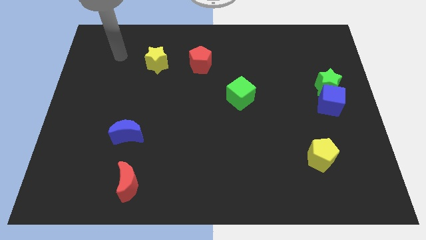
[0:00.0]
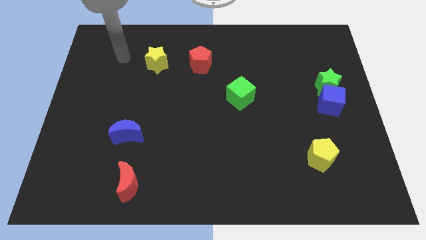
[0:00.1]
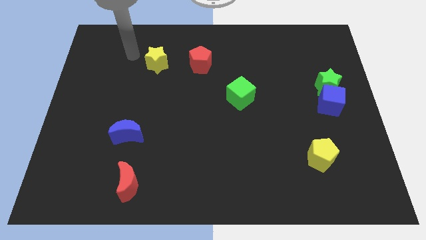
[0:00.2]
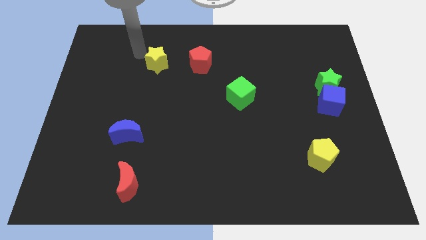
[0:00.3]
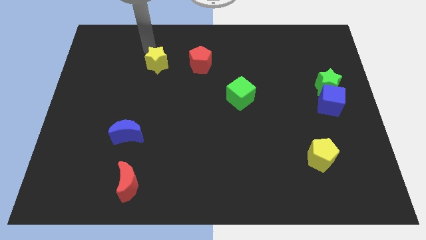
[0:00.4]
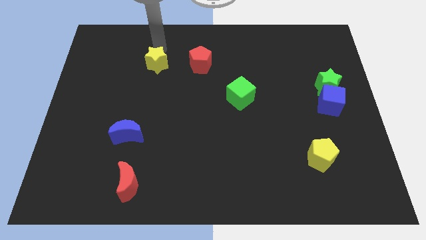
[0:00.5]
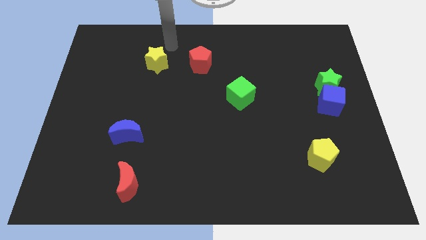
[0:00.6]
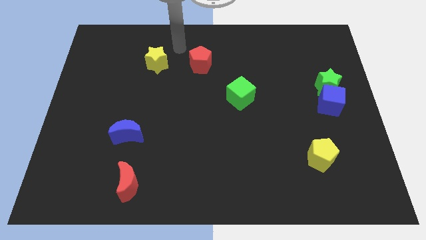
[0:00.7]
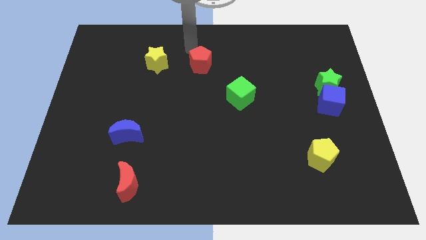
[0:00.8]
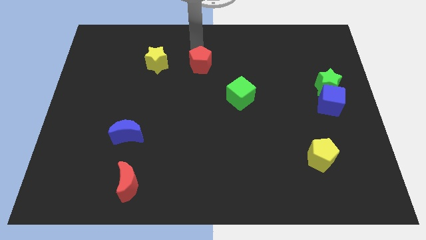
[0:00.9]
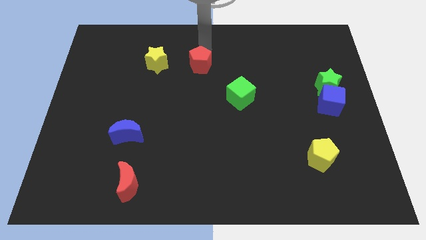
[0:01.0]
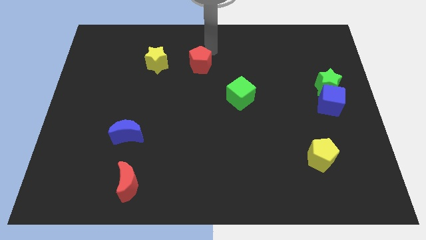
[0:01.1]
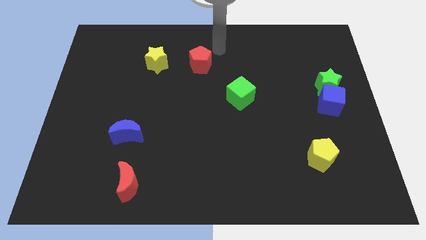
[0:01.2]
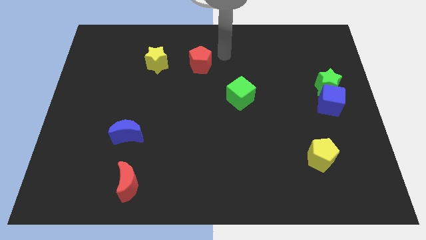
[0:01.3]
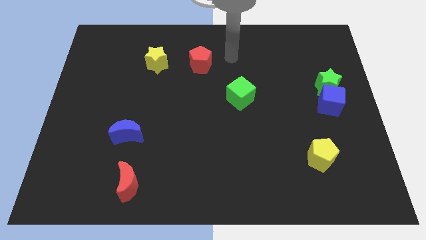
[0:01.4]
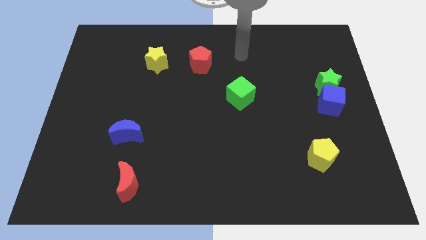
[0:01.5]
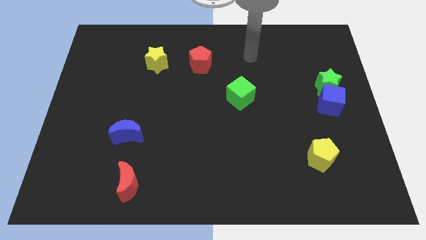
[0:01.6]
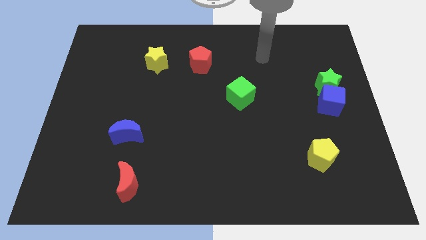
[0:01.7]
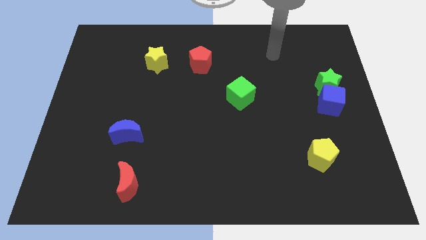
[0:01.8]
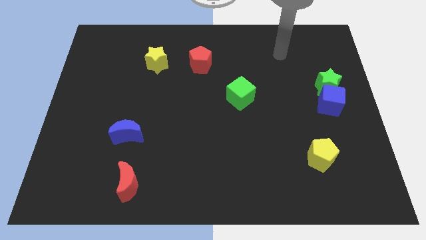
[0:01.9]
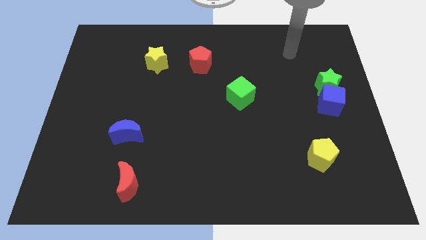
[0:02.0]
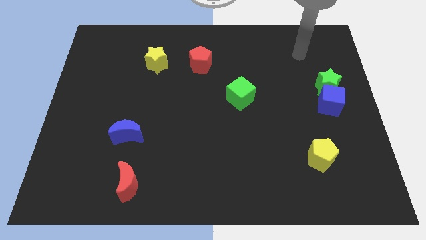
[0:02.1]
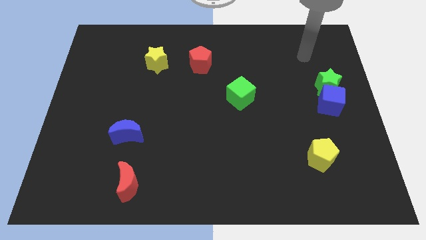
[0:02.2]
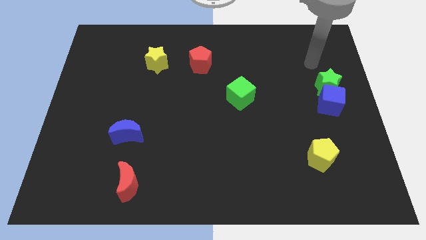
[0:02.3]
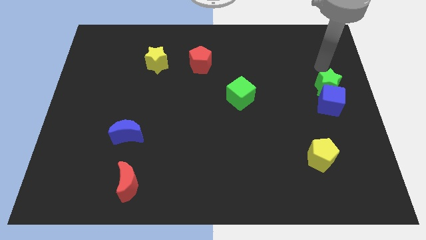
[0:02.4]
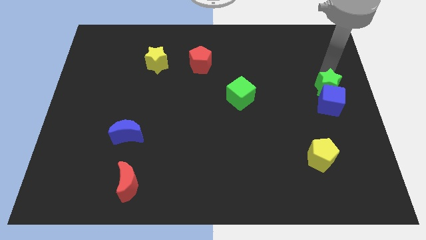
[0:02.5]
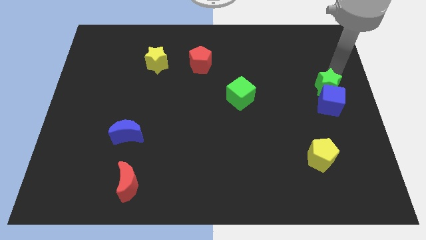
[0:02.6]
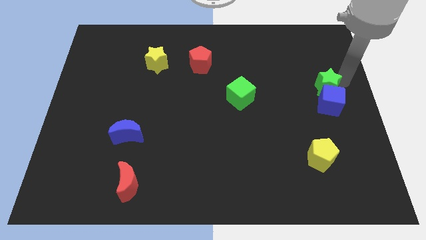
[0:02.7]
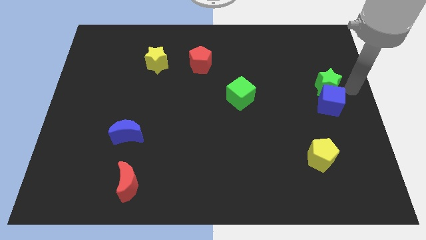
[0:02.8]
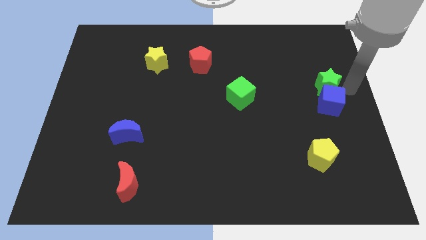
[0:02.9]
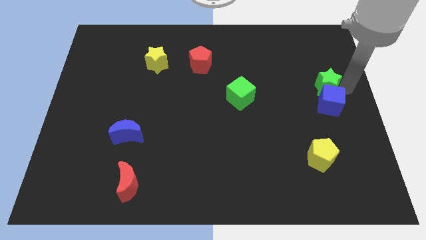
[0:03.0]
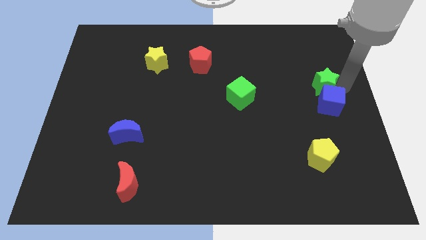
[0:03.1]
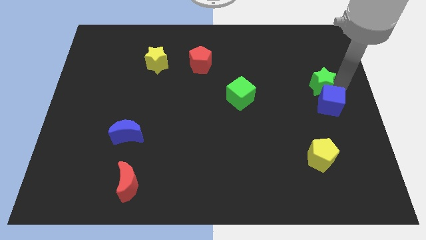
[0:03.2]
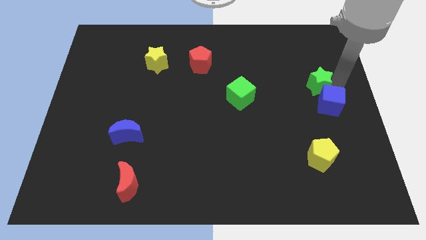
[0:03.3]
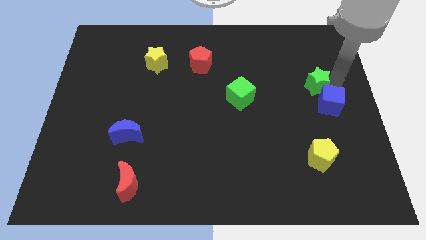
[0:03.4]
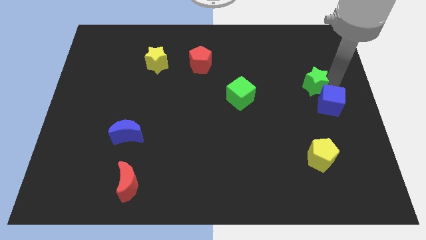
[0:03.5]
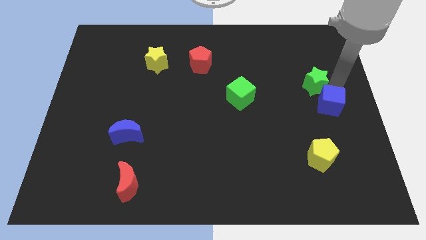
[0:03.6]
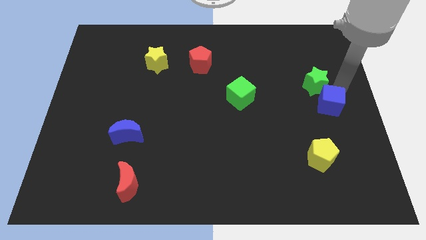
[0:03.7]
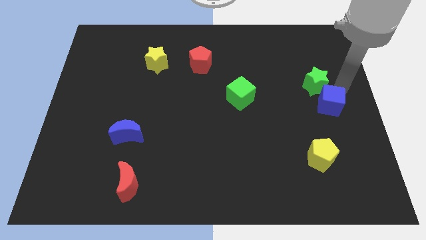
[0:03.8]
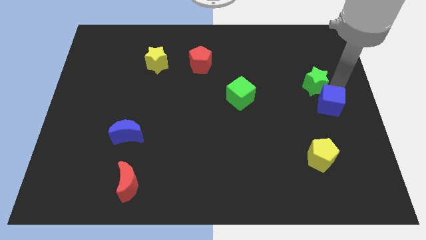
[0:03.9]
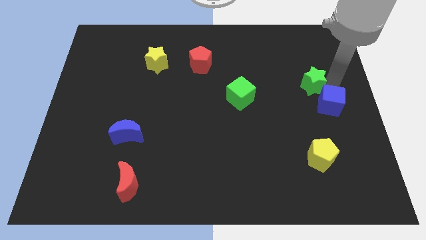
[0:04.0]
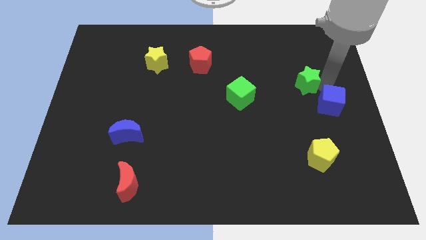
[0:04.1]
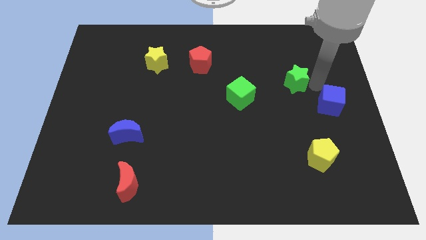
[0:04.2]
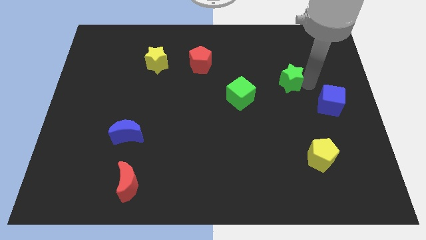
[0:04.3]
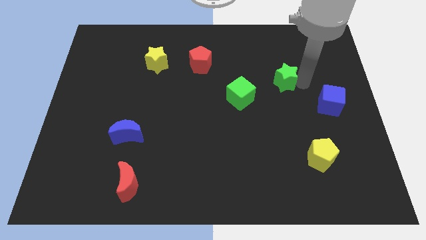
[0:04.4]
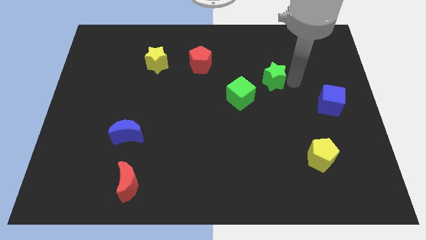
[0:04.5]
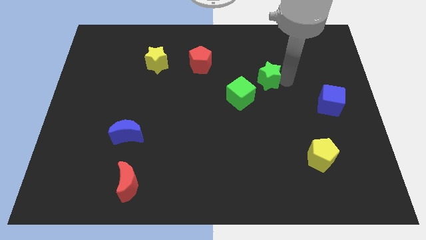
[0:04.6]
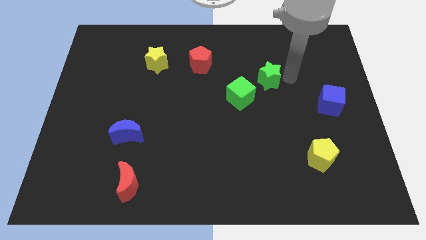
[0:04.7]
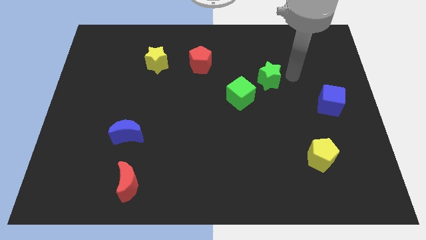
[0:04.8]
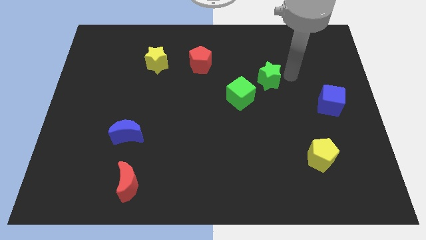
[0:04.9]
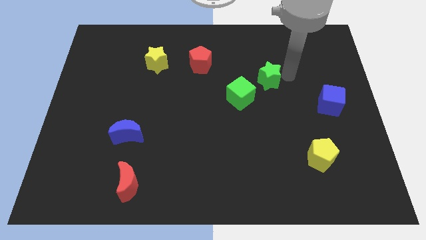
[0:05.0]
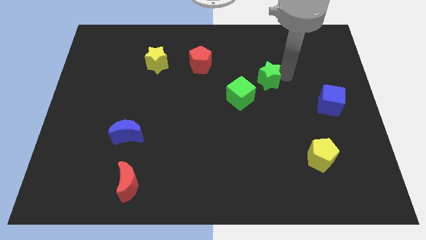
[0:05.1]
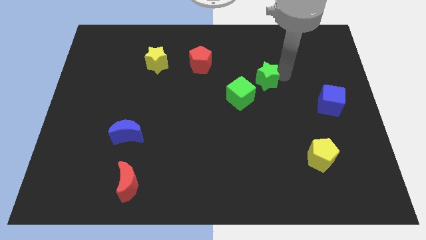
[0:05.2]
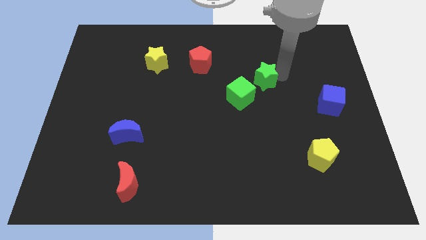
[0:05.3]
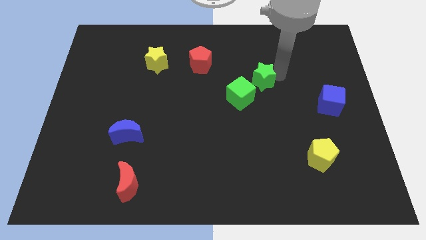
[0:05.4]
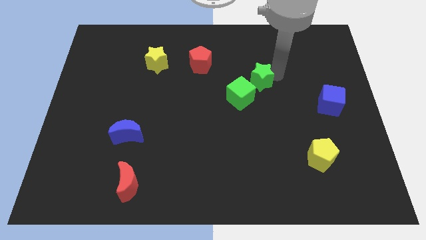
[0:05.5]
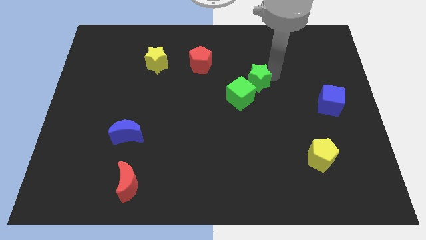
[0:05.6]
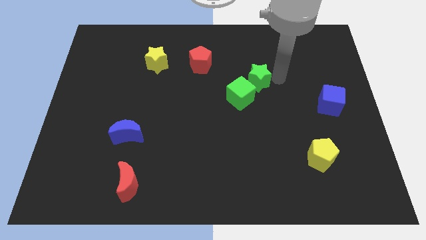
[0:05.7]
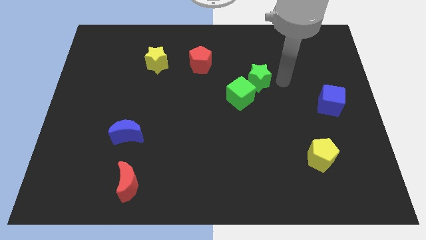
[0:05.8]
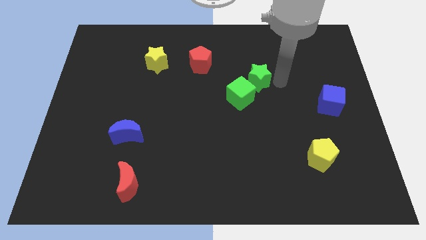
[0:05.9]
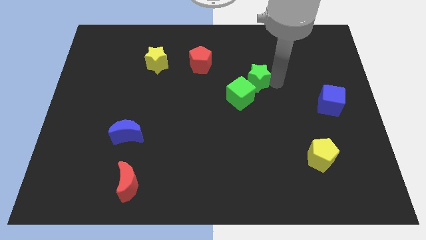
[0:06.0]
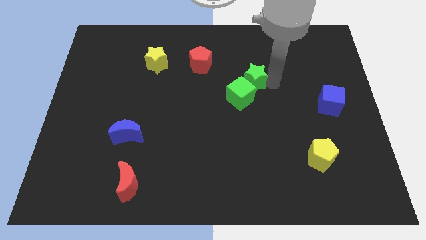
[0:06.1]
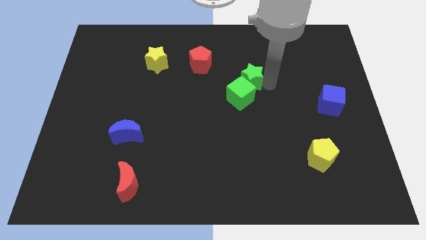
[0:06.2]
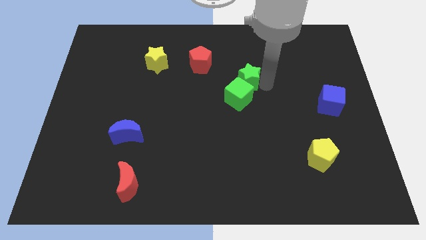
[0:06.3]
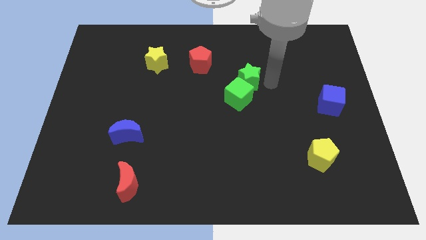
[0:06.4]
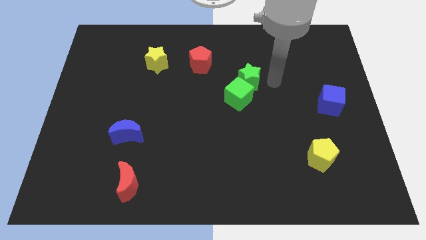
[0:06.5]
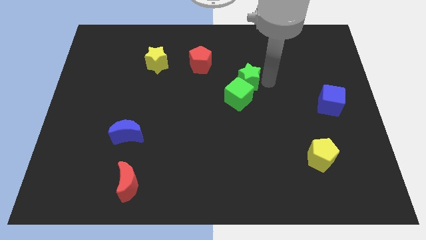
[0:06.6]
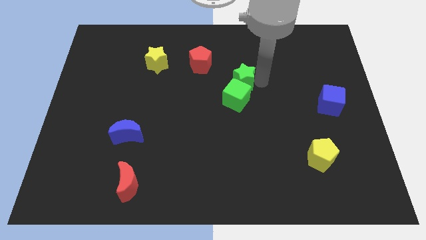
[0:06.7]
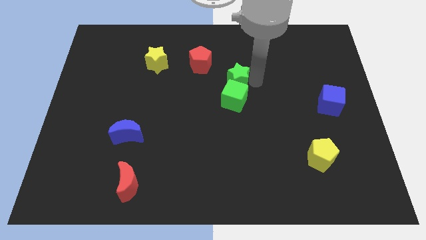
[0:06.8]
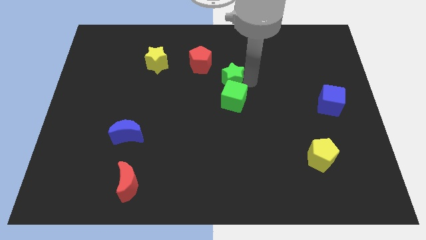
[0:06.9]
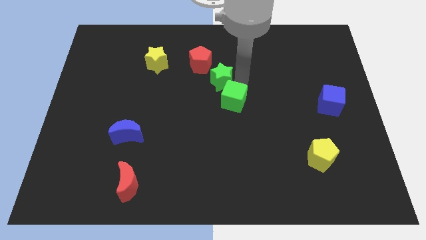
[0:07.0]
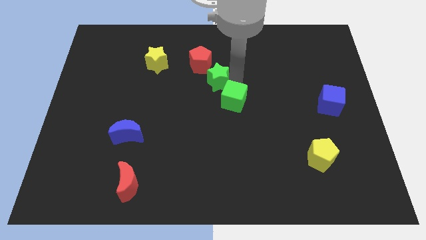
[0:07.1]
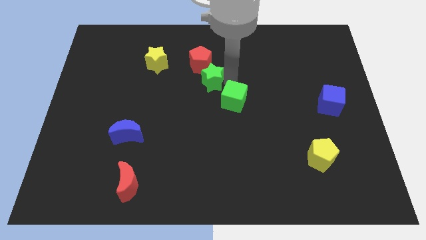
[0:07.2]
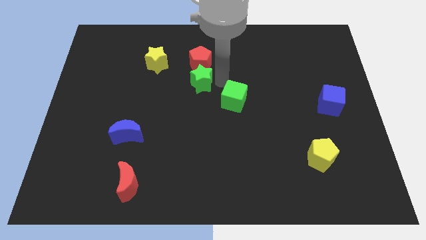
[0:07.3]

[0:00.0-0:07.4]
push the green star diagonally down and to the left of the red pentagon
